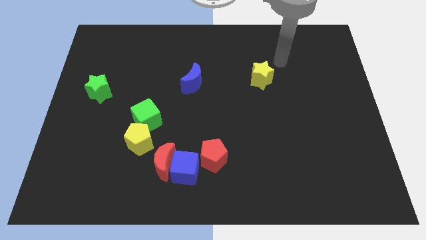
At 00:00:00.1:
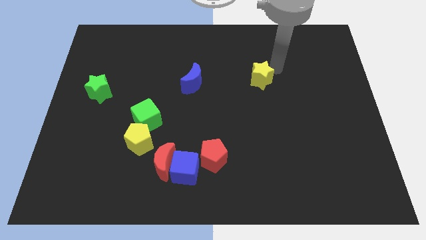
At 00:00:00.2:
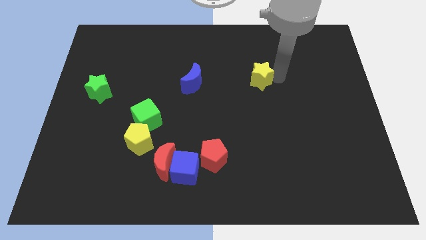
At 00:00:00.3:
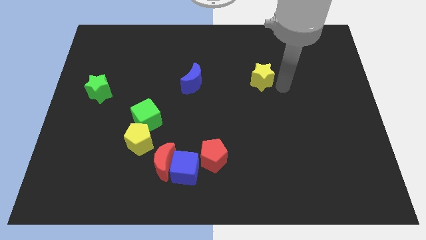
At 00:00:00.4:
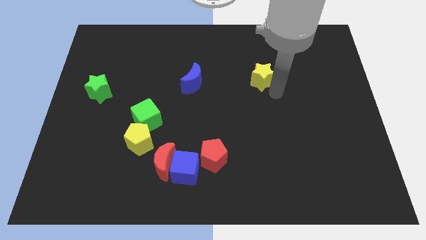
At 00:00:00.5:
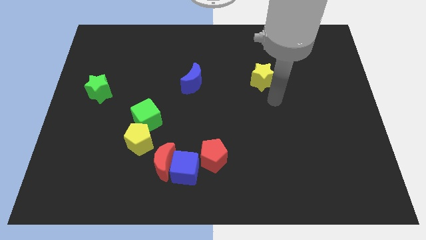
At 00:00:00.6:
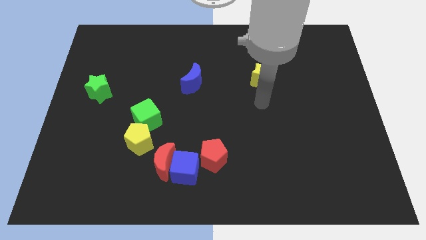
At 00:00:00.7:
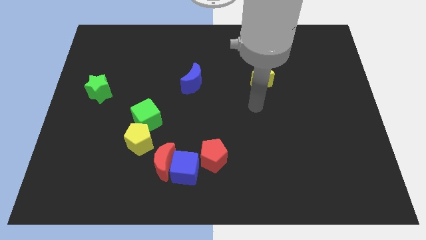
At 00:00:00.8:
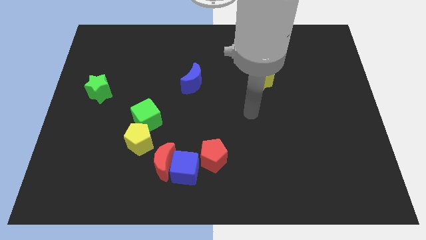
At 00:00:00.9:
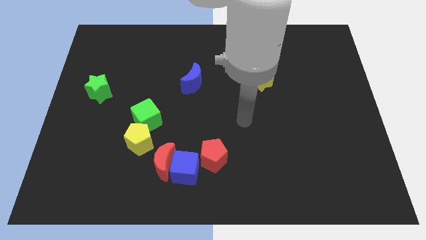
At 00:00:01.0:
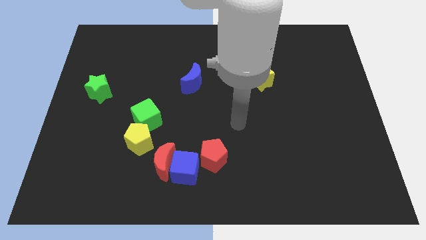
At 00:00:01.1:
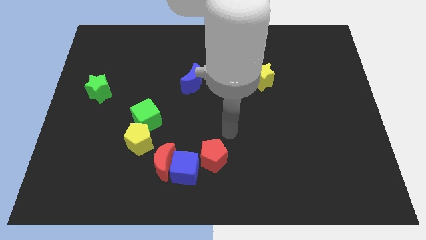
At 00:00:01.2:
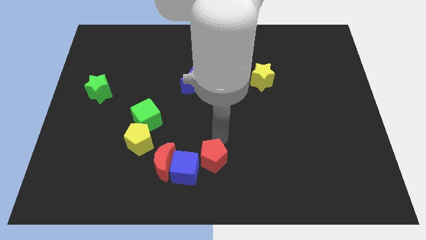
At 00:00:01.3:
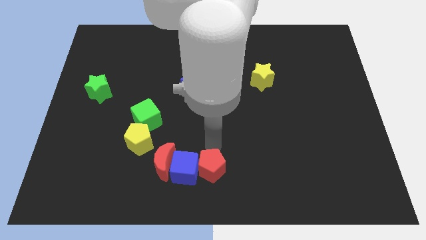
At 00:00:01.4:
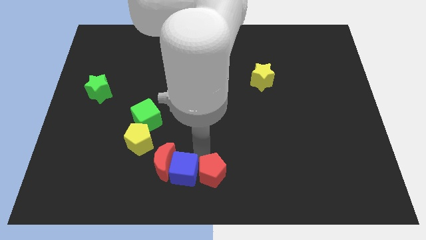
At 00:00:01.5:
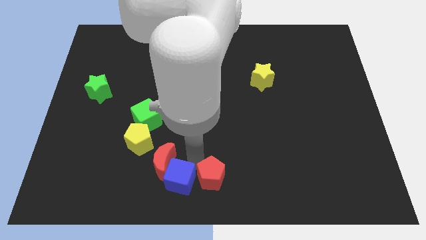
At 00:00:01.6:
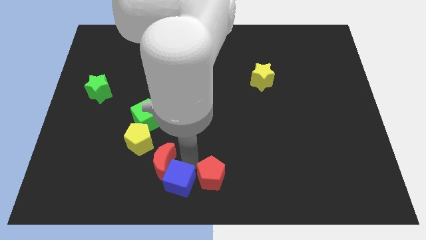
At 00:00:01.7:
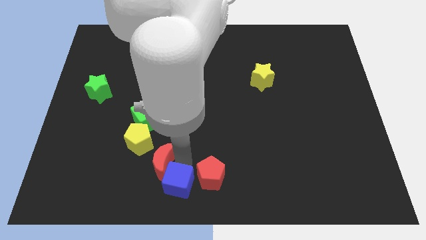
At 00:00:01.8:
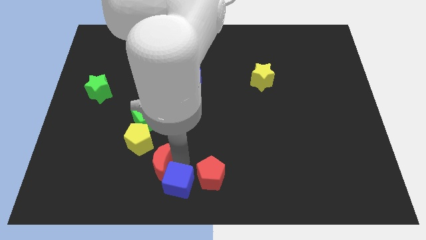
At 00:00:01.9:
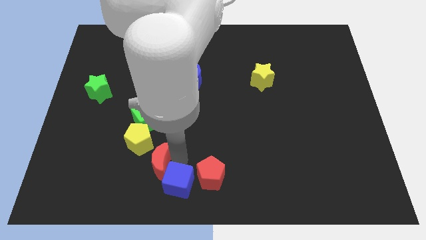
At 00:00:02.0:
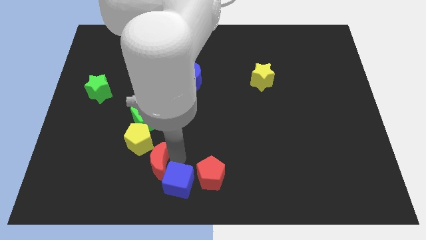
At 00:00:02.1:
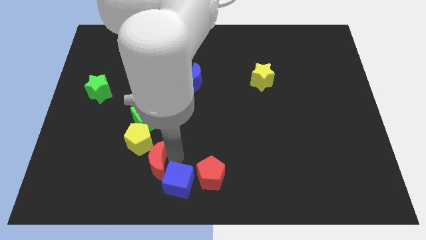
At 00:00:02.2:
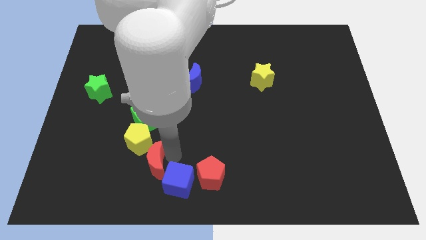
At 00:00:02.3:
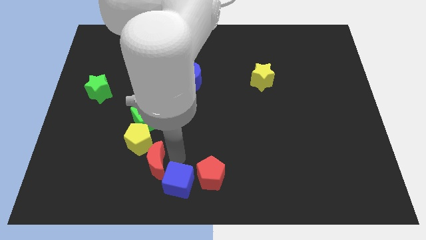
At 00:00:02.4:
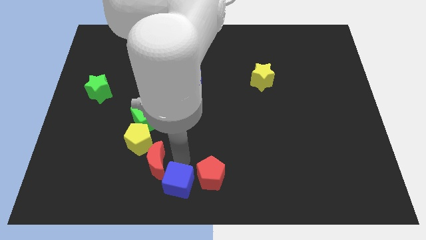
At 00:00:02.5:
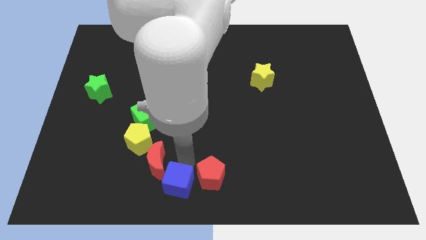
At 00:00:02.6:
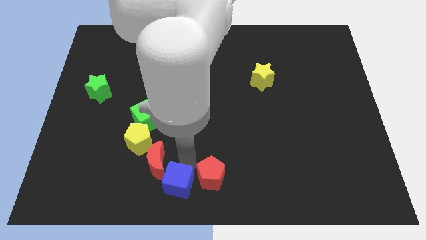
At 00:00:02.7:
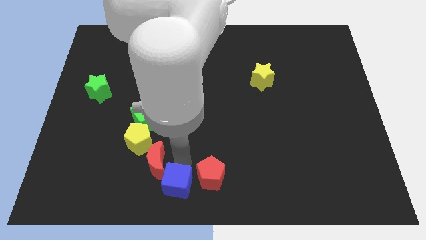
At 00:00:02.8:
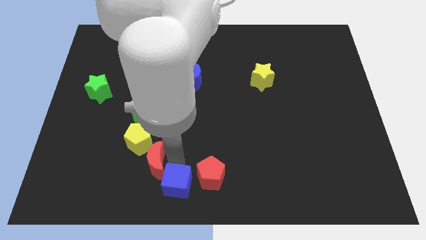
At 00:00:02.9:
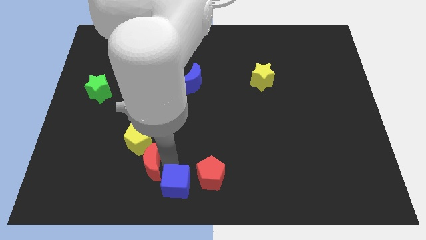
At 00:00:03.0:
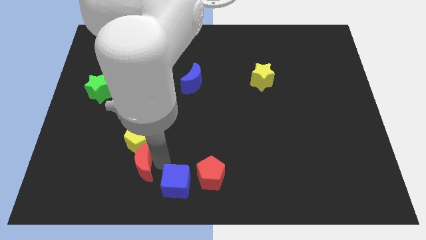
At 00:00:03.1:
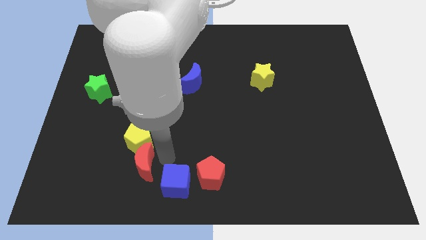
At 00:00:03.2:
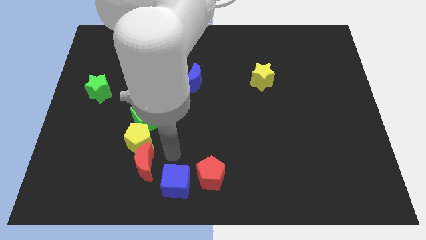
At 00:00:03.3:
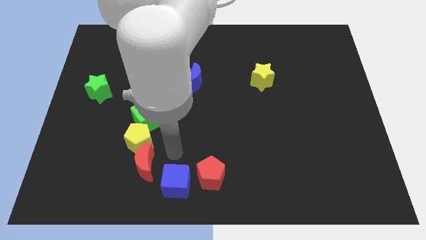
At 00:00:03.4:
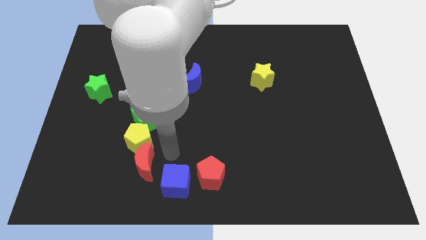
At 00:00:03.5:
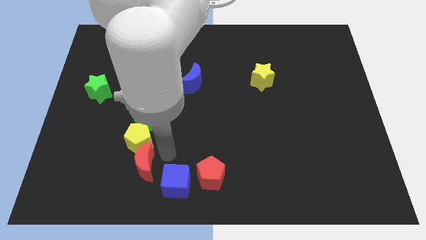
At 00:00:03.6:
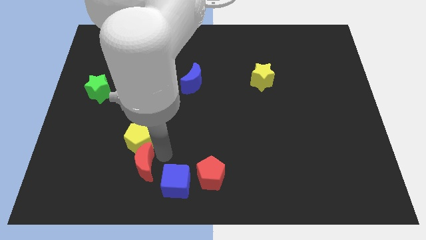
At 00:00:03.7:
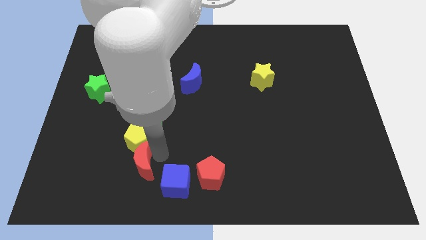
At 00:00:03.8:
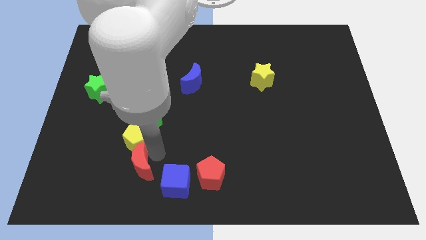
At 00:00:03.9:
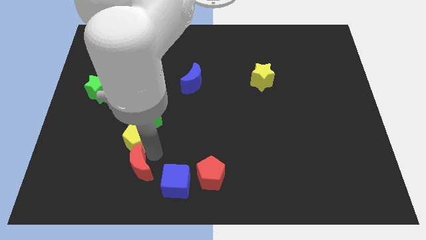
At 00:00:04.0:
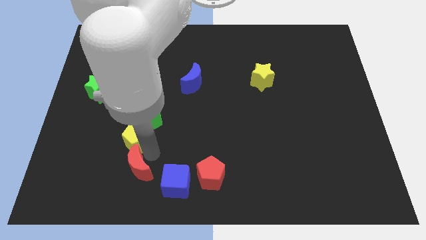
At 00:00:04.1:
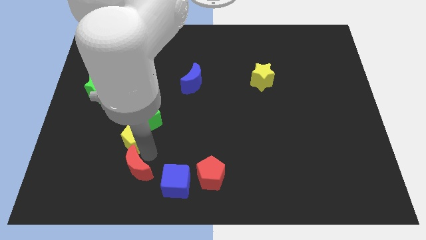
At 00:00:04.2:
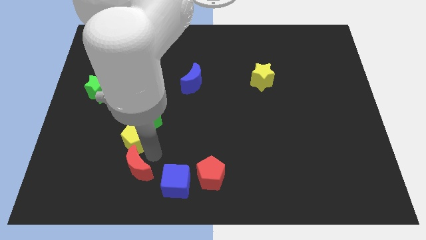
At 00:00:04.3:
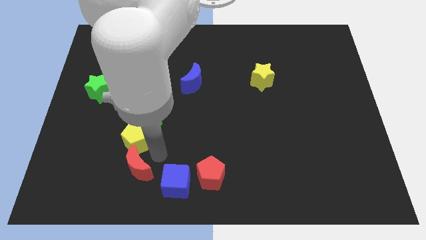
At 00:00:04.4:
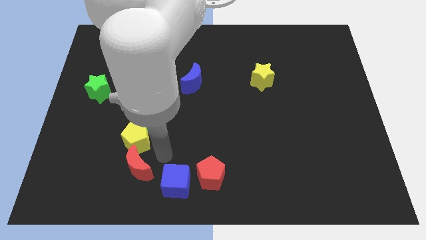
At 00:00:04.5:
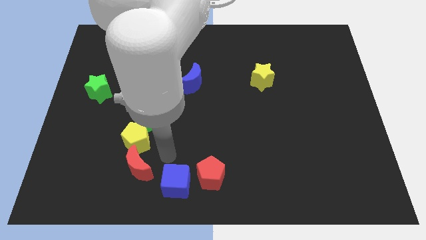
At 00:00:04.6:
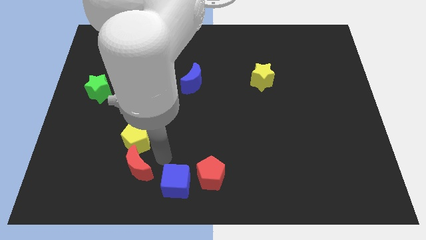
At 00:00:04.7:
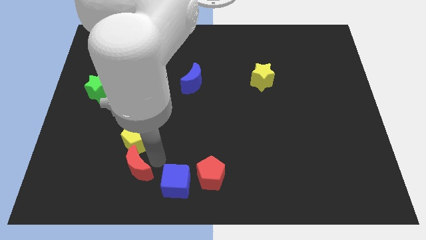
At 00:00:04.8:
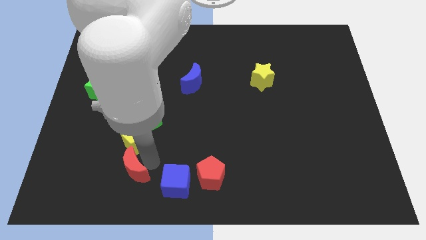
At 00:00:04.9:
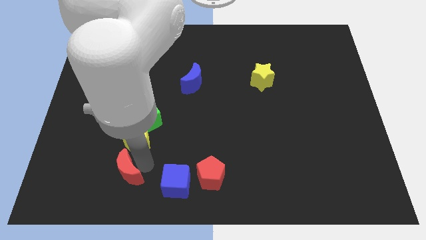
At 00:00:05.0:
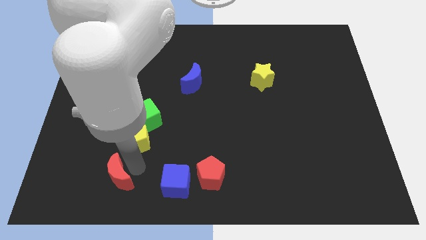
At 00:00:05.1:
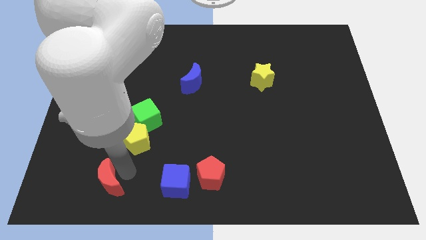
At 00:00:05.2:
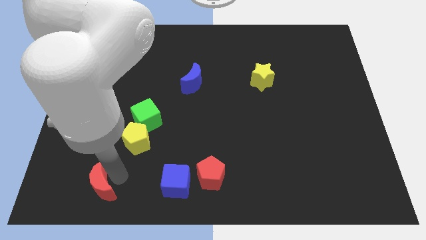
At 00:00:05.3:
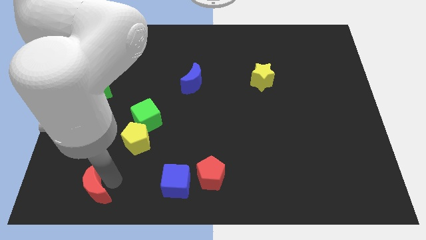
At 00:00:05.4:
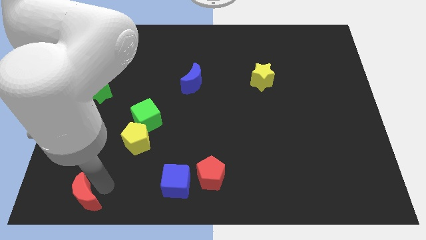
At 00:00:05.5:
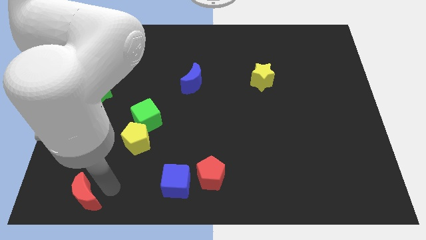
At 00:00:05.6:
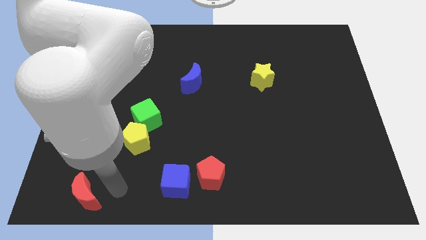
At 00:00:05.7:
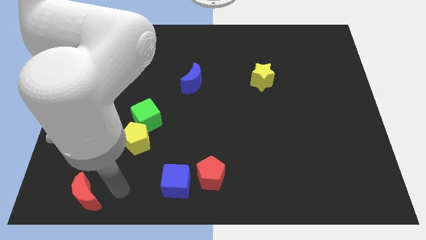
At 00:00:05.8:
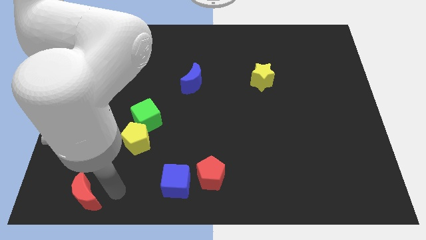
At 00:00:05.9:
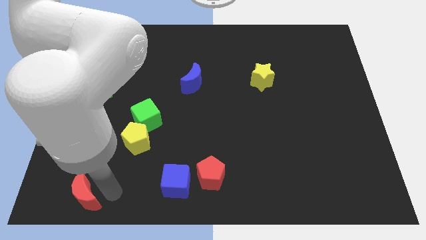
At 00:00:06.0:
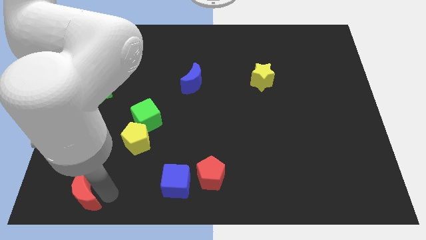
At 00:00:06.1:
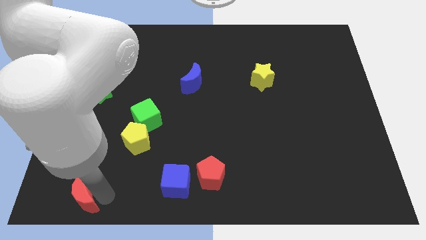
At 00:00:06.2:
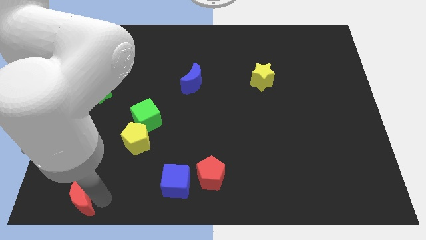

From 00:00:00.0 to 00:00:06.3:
put the red moon to the bottom left

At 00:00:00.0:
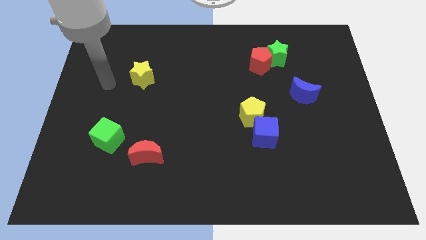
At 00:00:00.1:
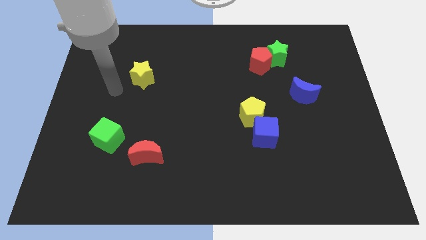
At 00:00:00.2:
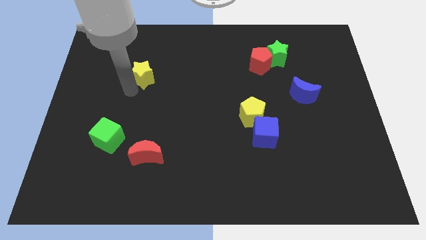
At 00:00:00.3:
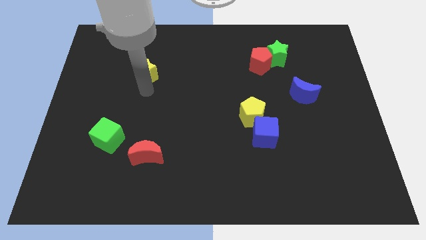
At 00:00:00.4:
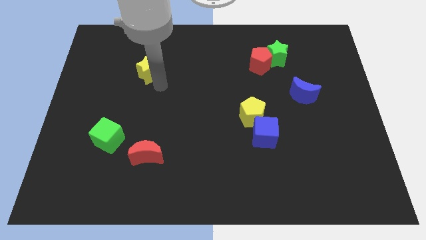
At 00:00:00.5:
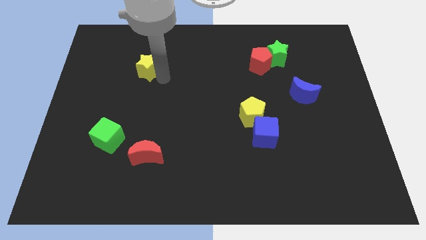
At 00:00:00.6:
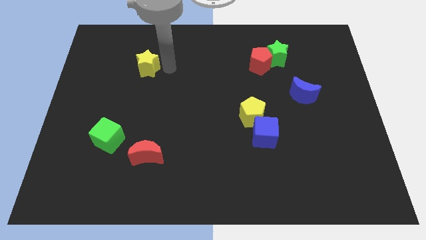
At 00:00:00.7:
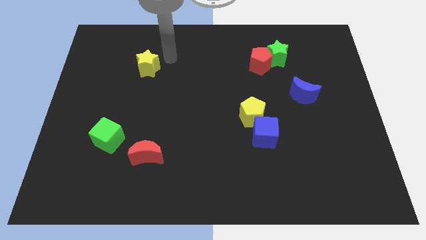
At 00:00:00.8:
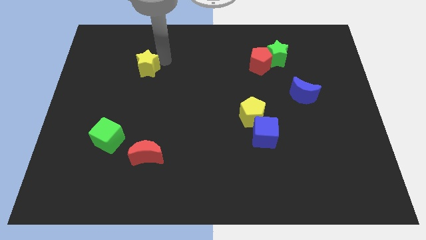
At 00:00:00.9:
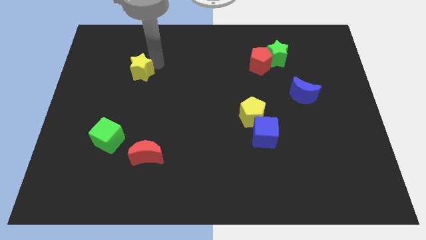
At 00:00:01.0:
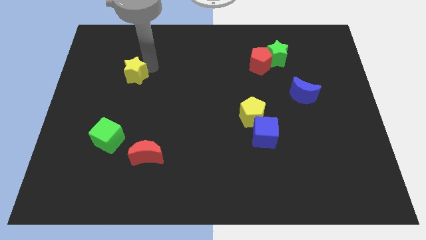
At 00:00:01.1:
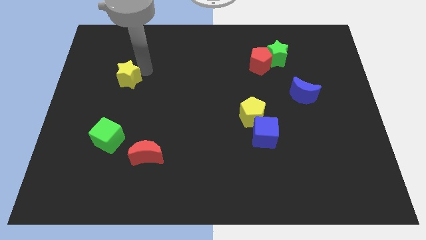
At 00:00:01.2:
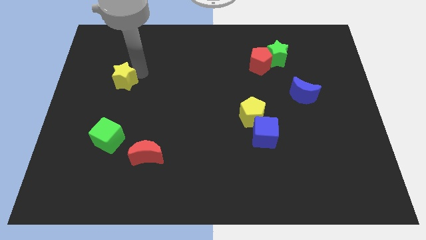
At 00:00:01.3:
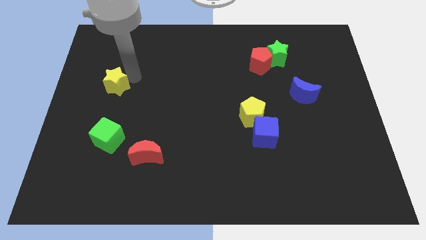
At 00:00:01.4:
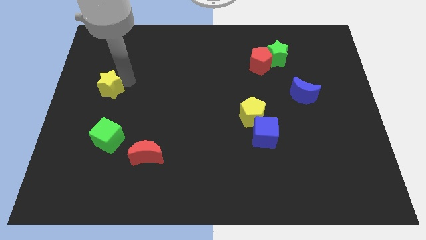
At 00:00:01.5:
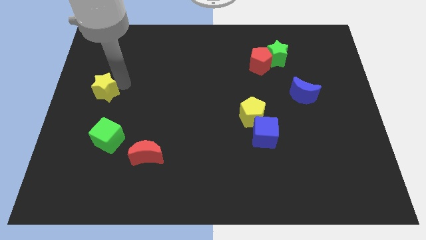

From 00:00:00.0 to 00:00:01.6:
move the yellow star to the left side
